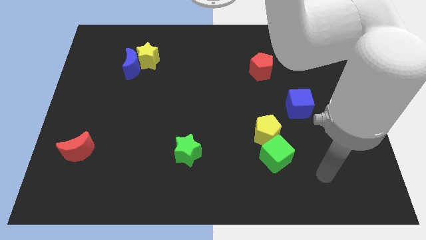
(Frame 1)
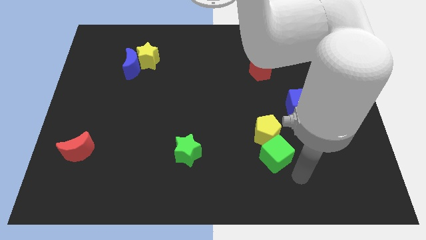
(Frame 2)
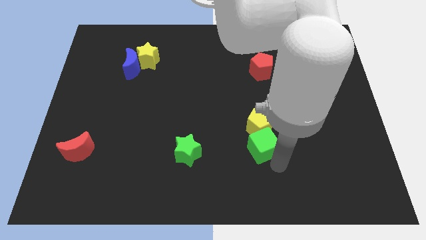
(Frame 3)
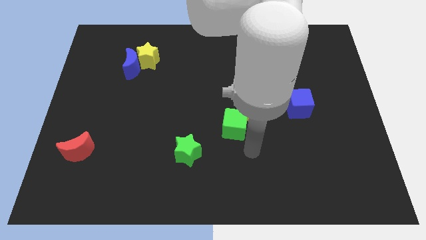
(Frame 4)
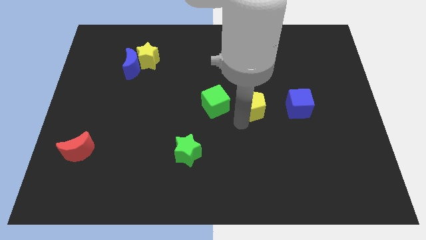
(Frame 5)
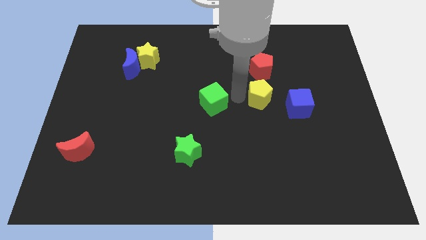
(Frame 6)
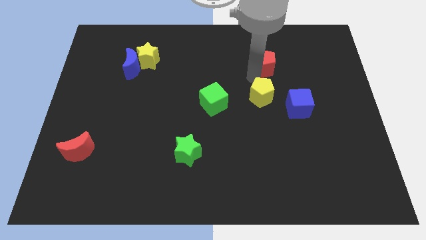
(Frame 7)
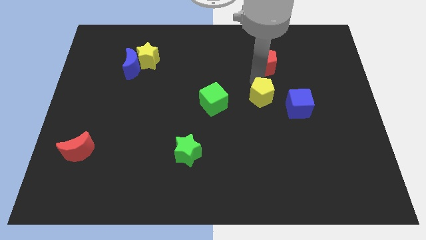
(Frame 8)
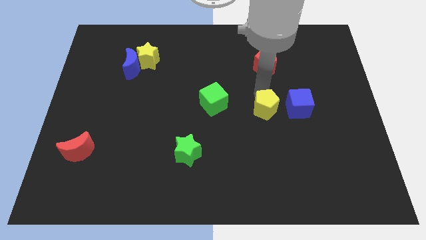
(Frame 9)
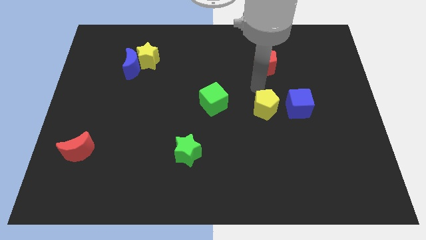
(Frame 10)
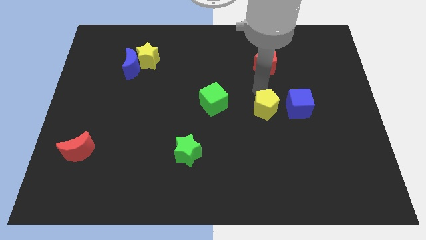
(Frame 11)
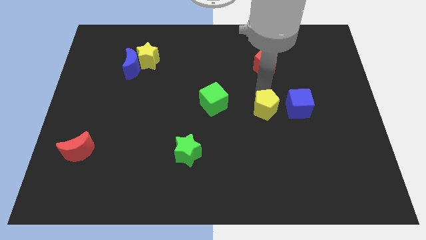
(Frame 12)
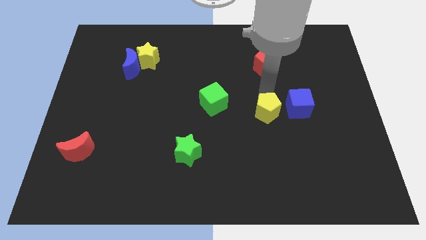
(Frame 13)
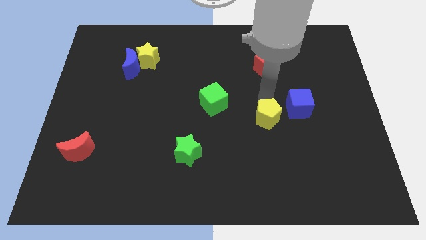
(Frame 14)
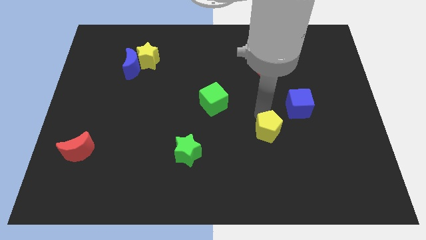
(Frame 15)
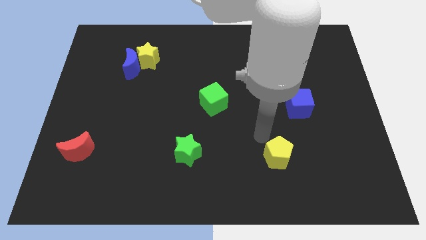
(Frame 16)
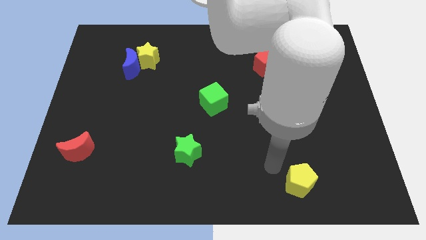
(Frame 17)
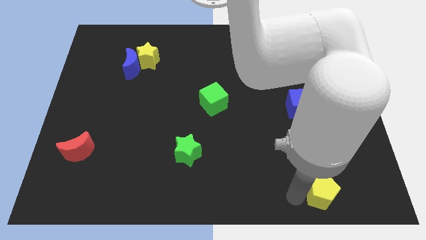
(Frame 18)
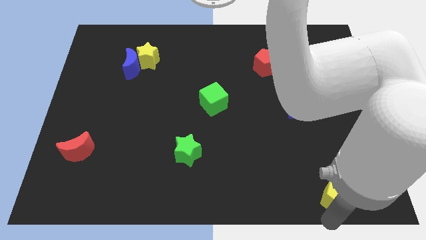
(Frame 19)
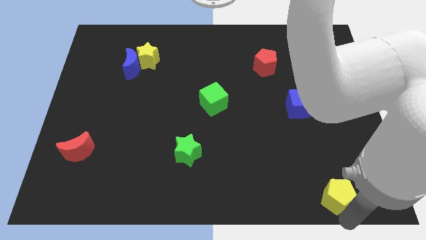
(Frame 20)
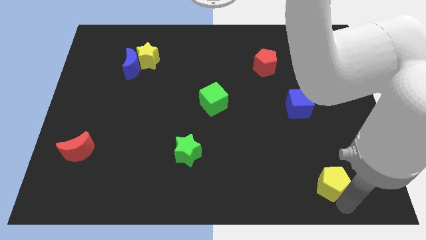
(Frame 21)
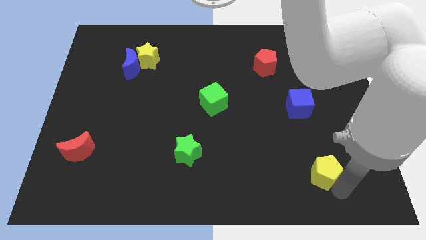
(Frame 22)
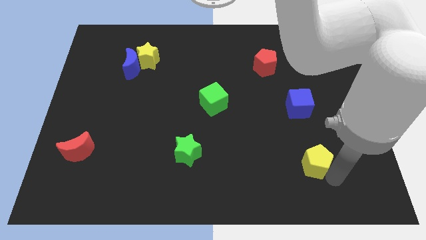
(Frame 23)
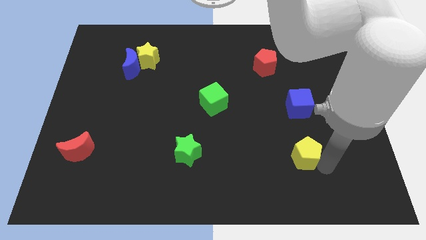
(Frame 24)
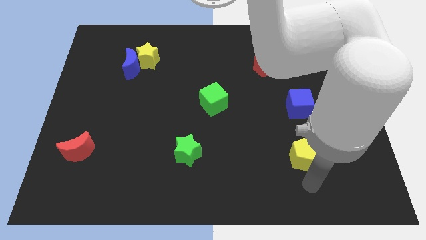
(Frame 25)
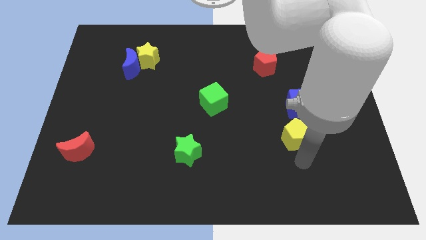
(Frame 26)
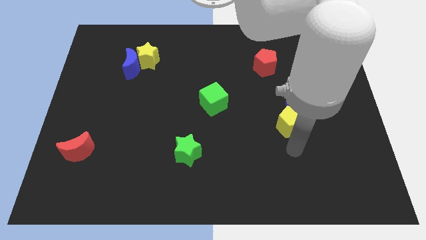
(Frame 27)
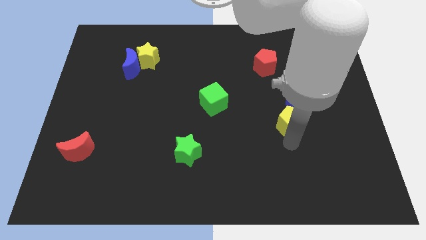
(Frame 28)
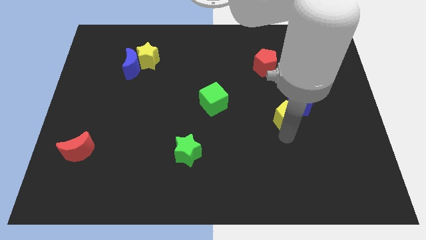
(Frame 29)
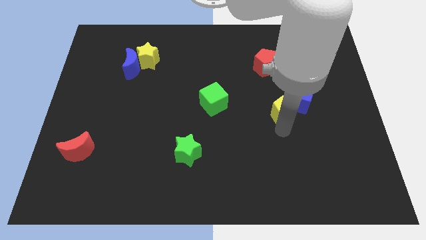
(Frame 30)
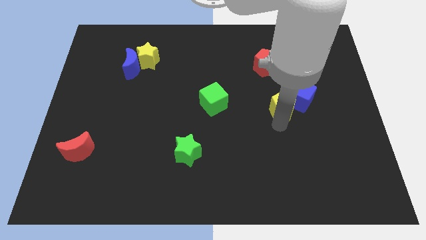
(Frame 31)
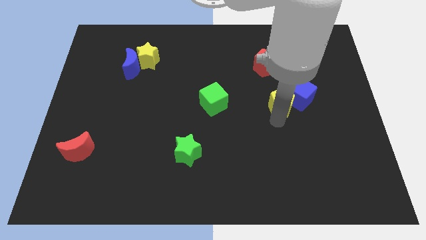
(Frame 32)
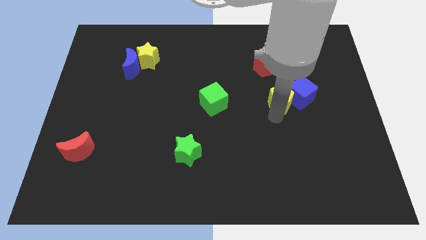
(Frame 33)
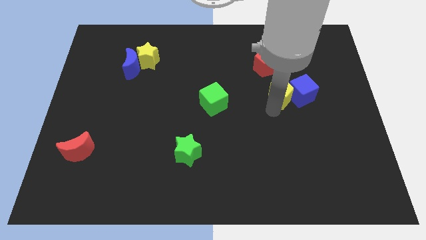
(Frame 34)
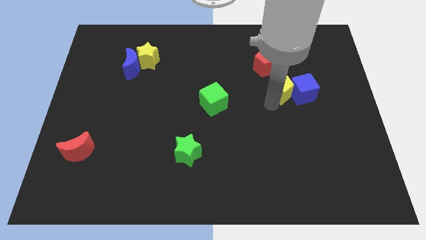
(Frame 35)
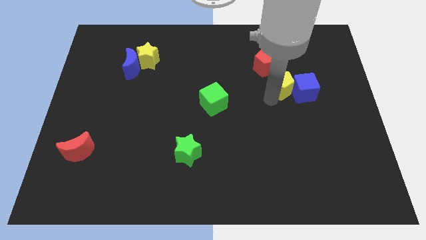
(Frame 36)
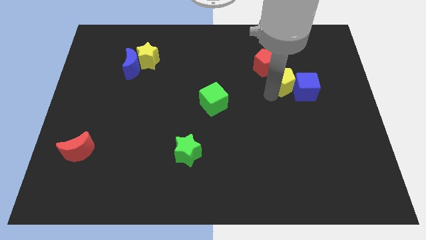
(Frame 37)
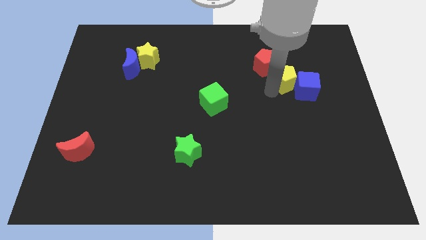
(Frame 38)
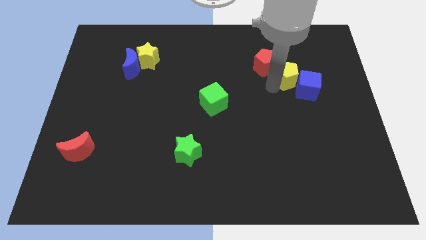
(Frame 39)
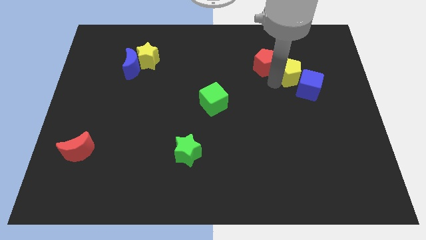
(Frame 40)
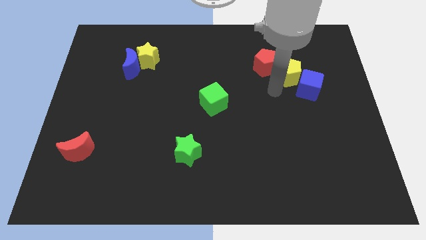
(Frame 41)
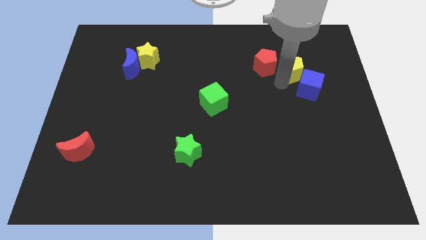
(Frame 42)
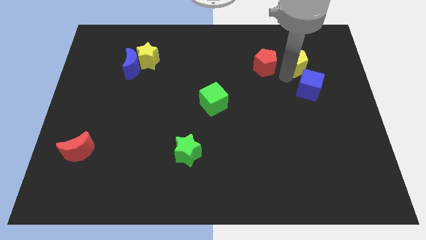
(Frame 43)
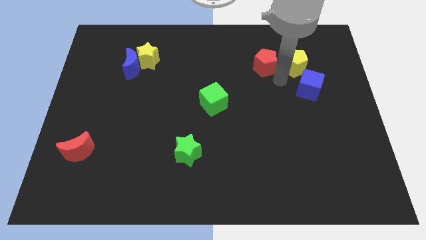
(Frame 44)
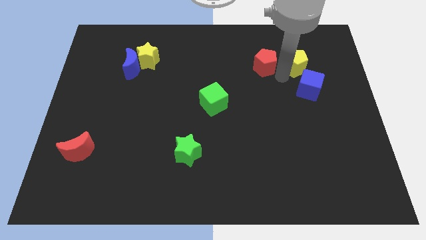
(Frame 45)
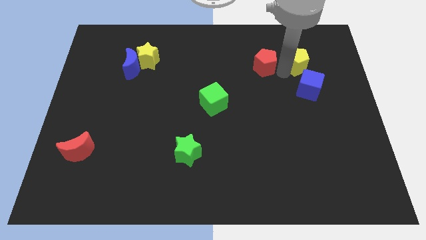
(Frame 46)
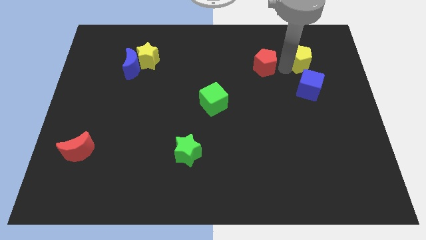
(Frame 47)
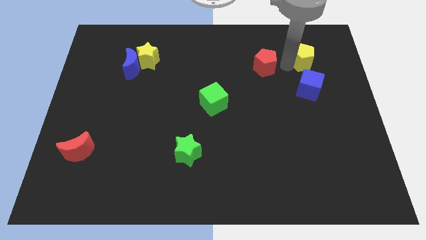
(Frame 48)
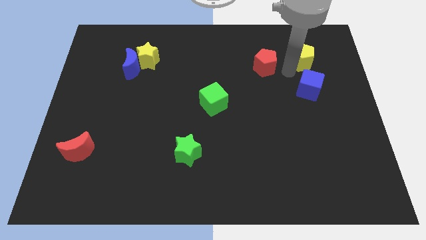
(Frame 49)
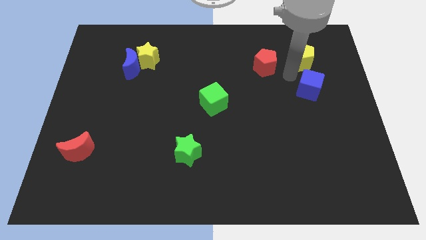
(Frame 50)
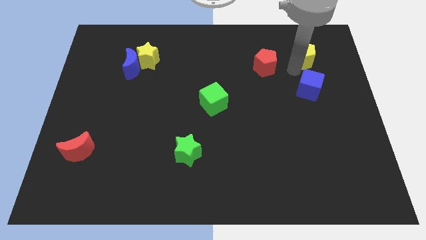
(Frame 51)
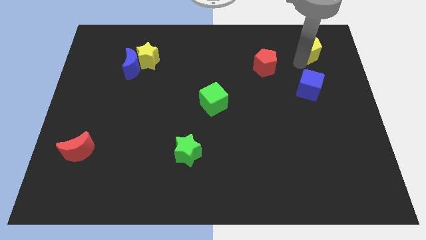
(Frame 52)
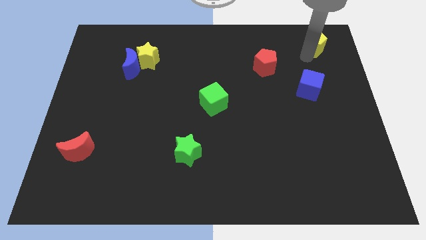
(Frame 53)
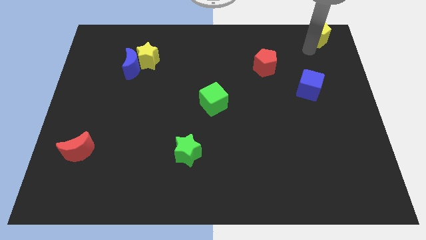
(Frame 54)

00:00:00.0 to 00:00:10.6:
put the yellow pentagon to the top right

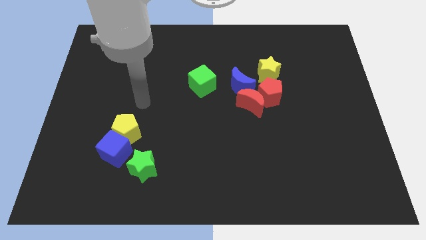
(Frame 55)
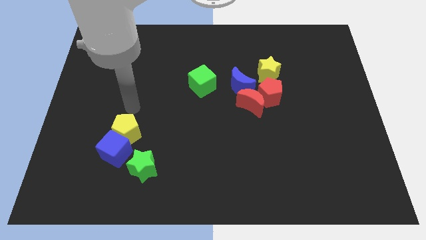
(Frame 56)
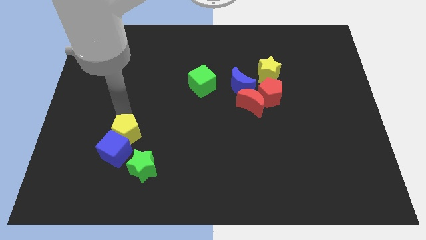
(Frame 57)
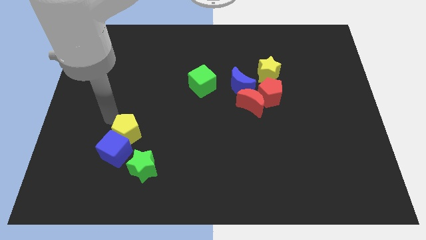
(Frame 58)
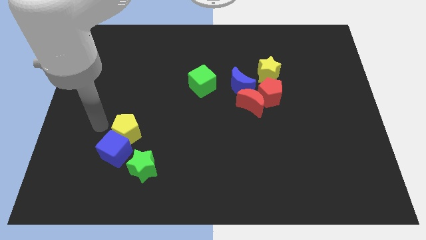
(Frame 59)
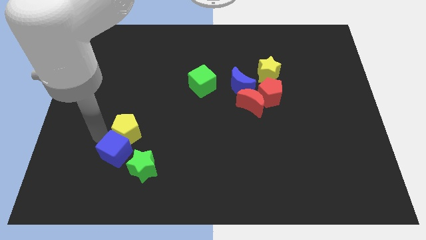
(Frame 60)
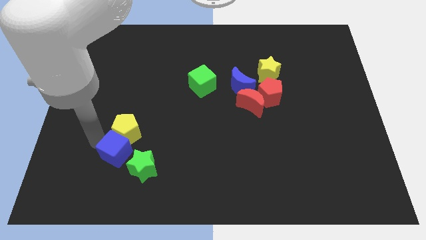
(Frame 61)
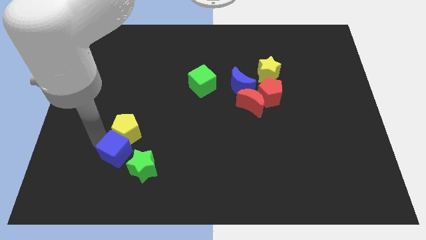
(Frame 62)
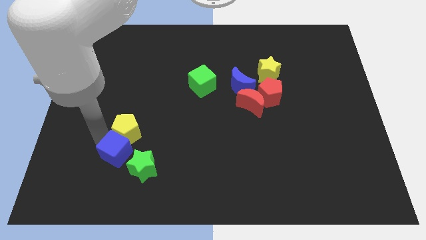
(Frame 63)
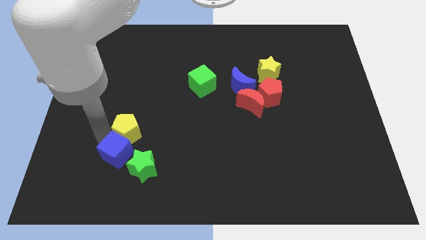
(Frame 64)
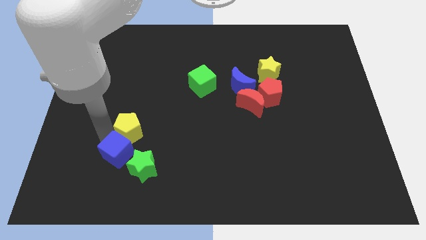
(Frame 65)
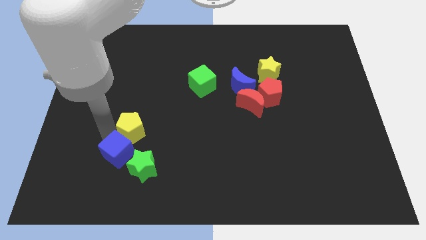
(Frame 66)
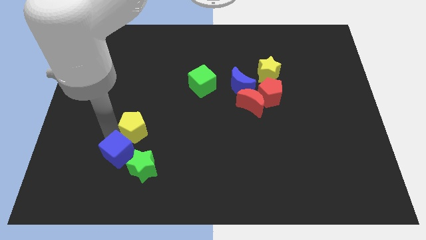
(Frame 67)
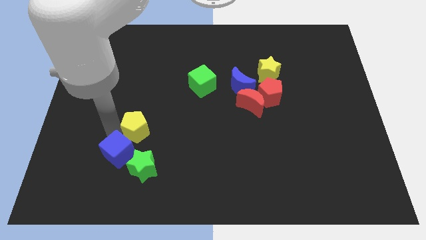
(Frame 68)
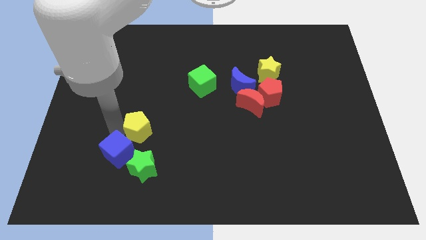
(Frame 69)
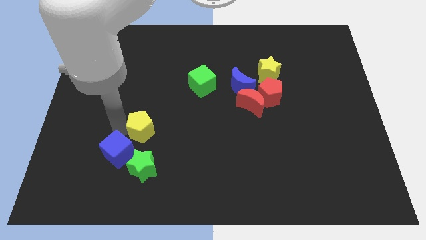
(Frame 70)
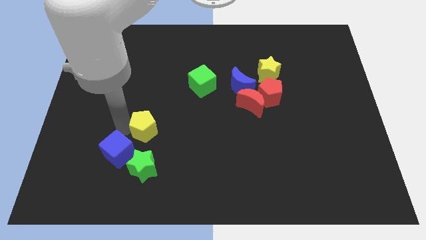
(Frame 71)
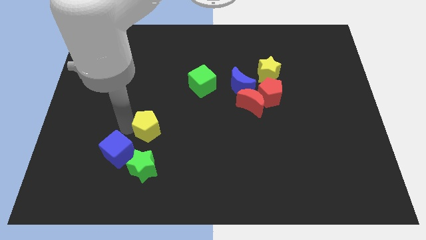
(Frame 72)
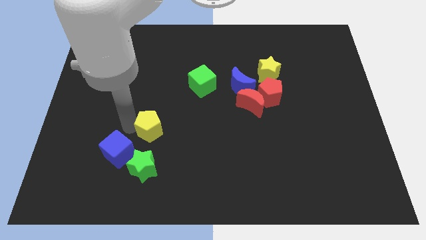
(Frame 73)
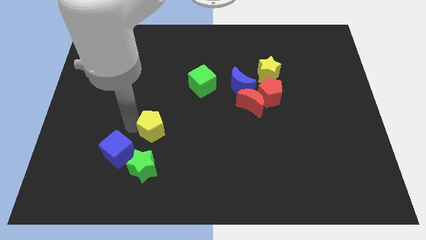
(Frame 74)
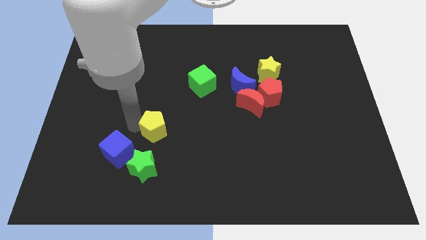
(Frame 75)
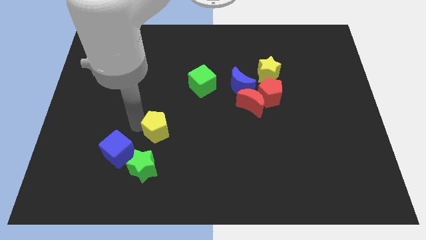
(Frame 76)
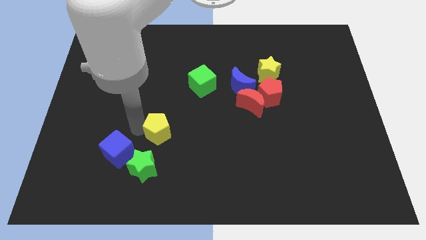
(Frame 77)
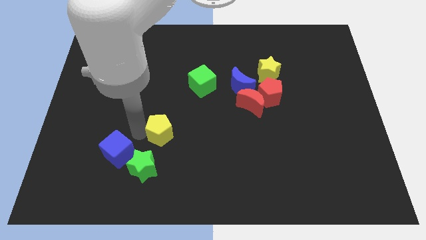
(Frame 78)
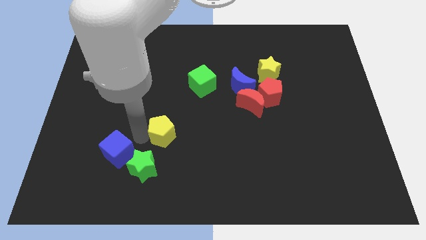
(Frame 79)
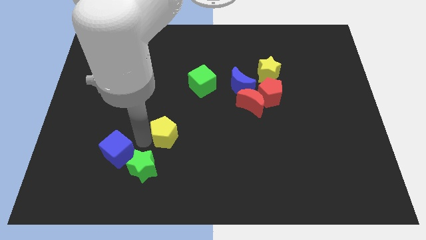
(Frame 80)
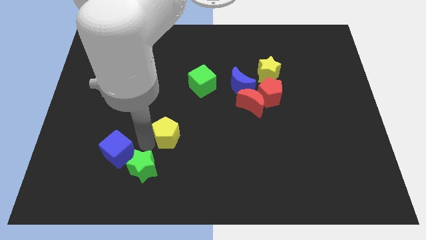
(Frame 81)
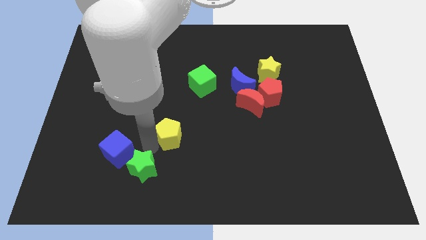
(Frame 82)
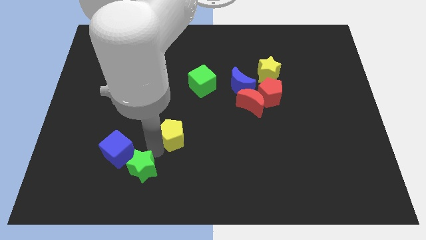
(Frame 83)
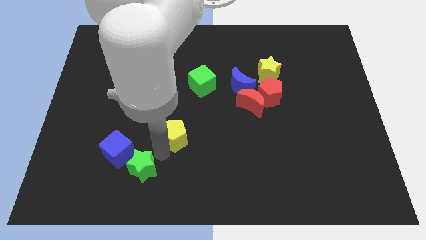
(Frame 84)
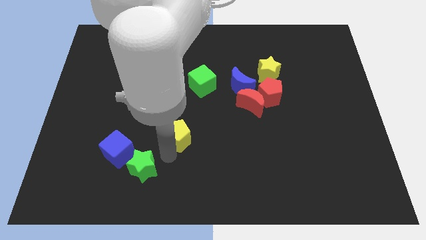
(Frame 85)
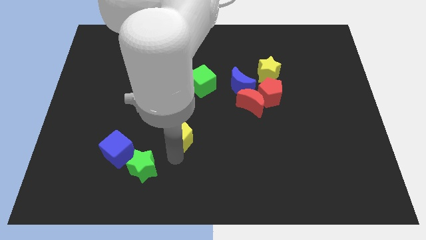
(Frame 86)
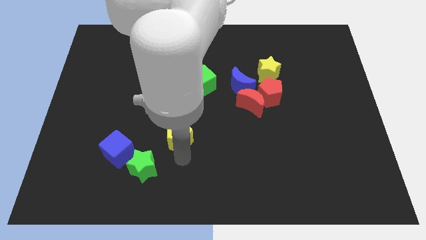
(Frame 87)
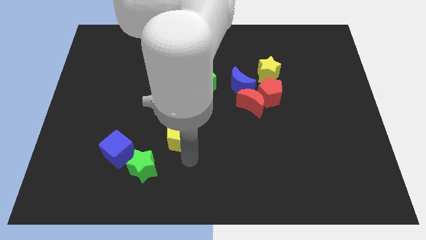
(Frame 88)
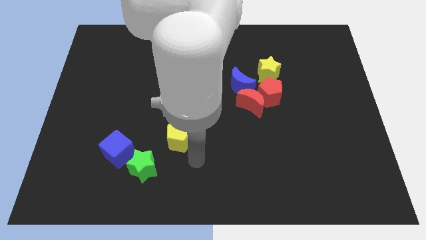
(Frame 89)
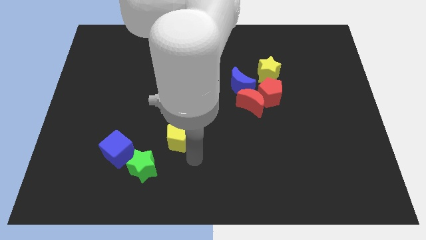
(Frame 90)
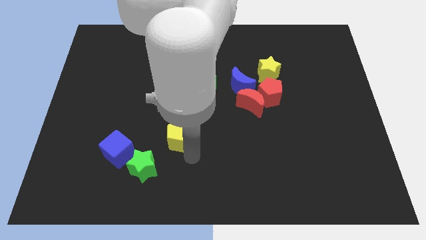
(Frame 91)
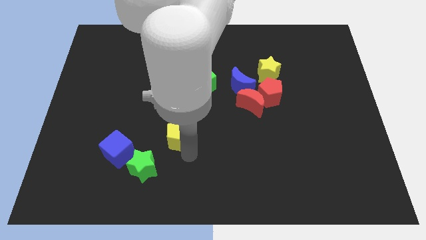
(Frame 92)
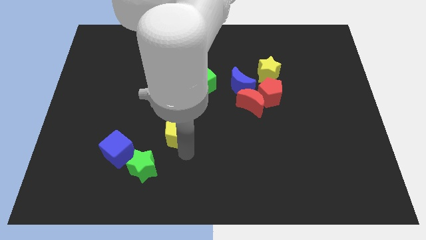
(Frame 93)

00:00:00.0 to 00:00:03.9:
put the yellow pentagon to the center of the board
